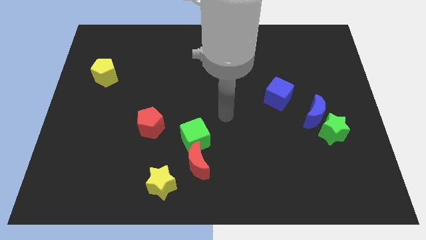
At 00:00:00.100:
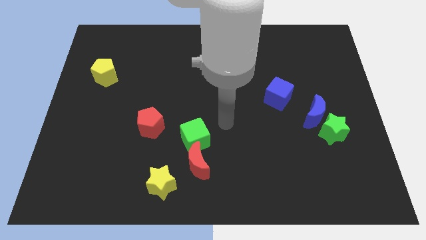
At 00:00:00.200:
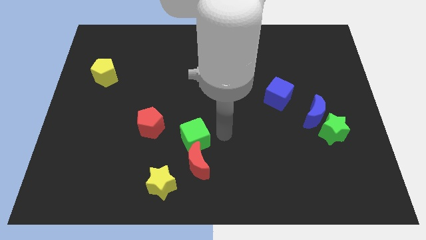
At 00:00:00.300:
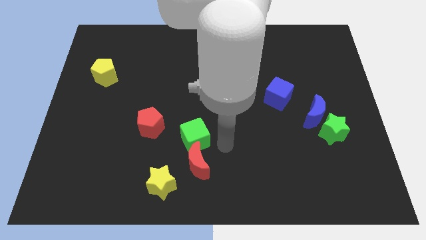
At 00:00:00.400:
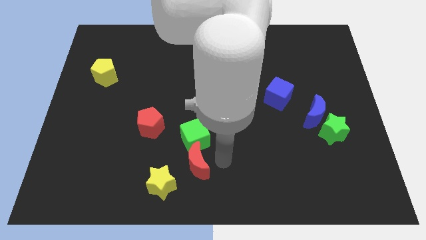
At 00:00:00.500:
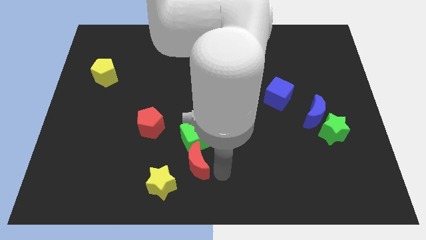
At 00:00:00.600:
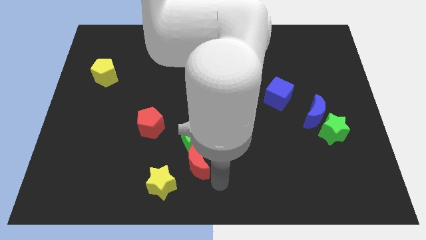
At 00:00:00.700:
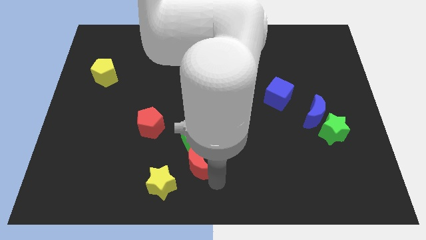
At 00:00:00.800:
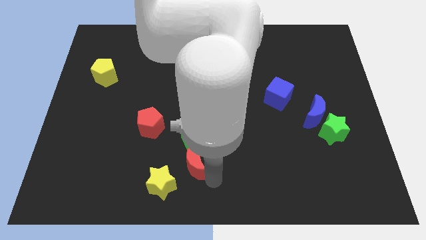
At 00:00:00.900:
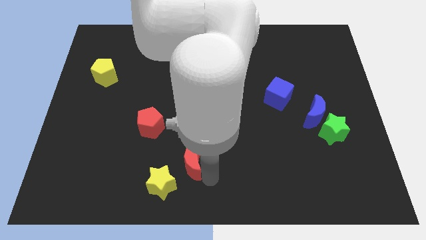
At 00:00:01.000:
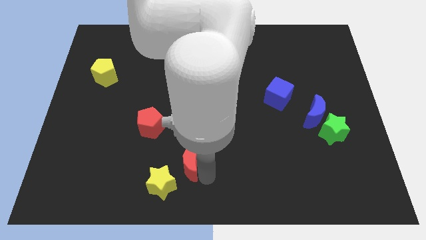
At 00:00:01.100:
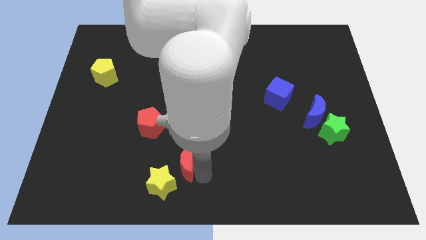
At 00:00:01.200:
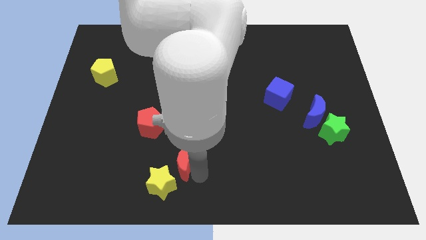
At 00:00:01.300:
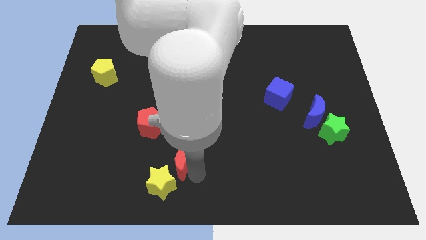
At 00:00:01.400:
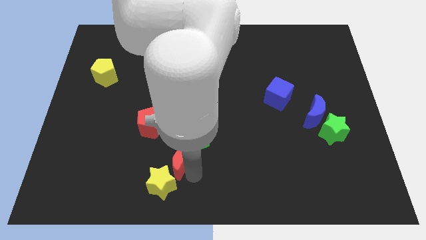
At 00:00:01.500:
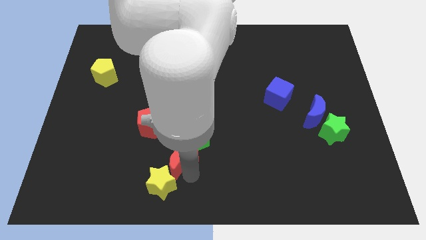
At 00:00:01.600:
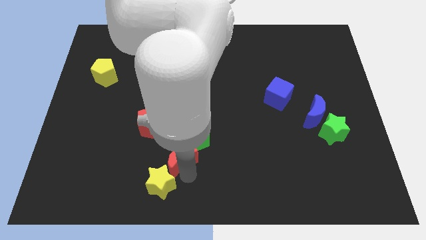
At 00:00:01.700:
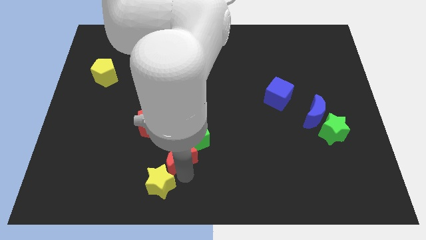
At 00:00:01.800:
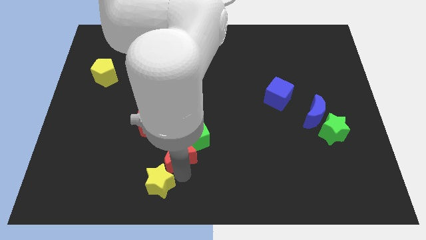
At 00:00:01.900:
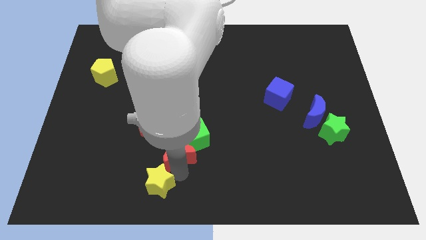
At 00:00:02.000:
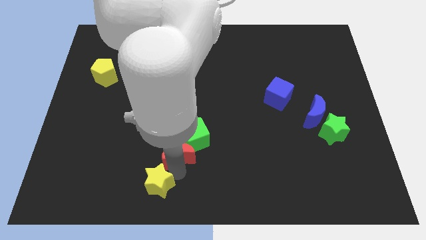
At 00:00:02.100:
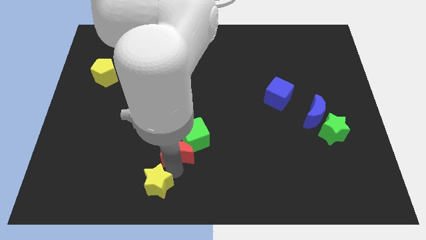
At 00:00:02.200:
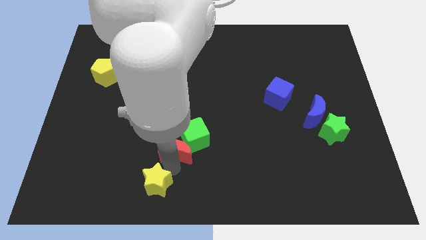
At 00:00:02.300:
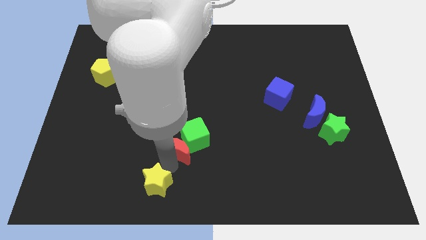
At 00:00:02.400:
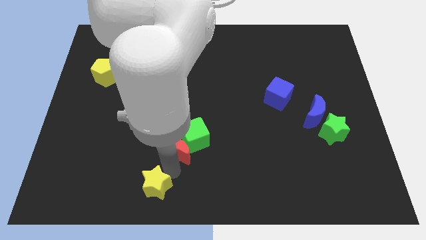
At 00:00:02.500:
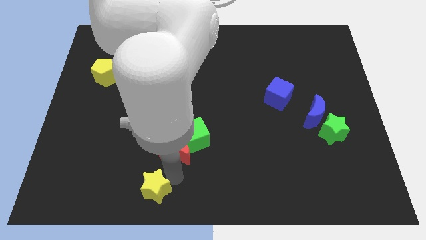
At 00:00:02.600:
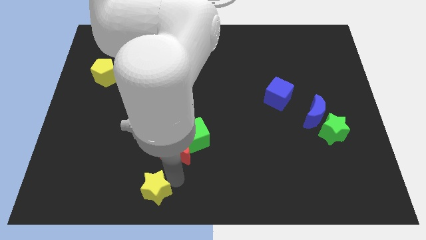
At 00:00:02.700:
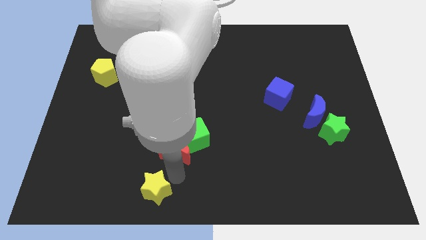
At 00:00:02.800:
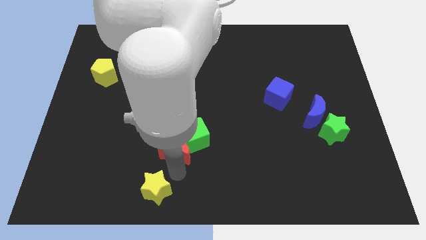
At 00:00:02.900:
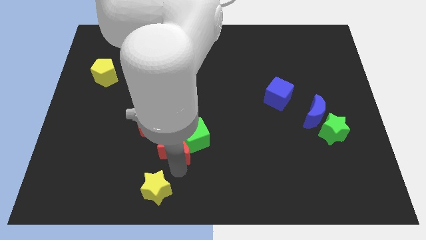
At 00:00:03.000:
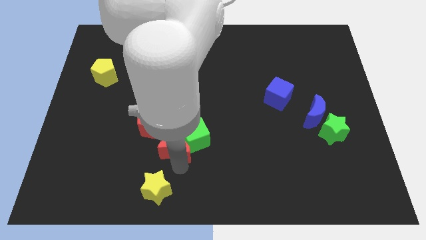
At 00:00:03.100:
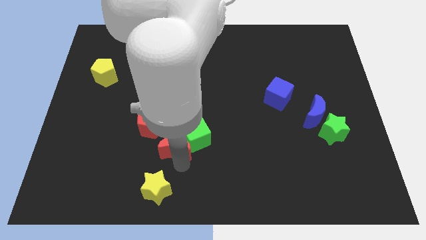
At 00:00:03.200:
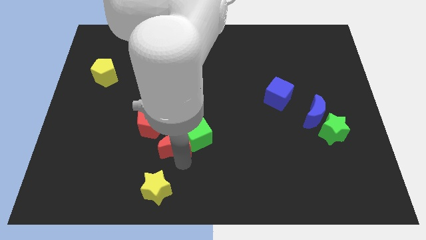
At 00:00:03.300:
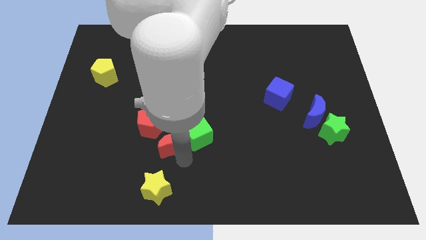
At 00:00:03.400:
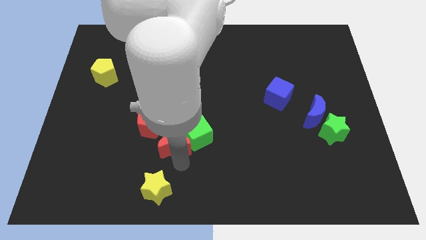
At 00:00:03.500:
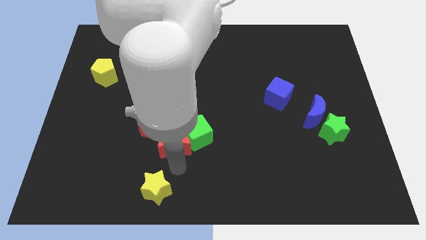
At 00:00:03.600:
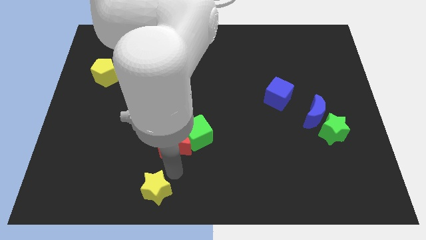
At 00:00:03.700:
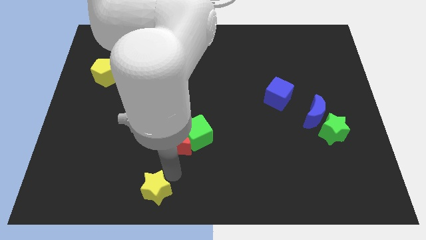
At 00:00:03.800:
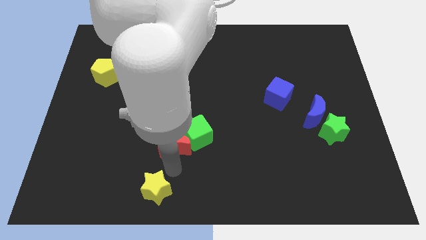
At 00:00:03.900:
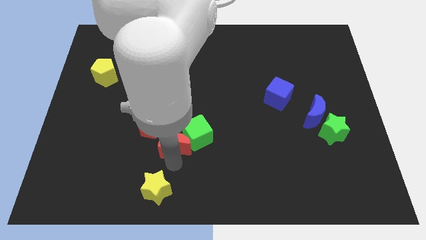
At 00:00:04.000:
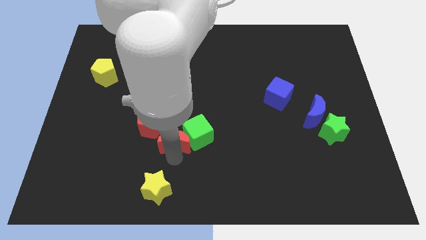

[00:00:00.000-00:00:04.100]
move the red moon slightly diagonally upwards and to the left

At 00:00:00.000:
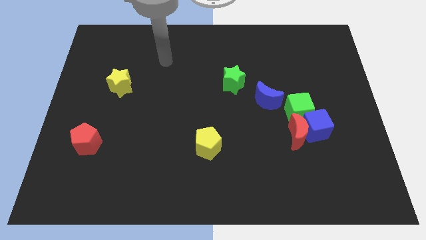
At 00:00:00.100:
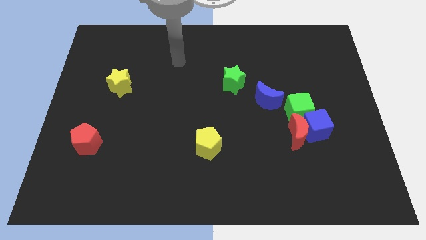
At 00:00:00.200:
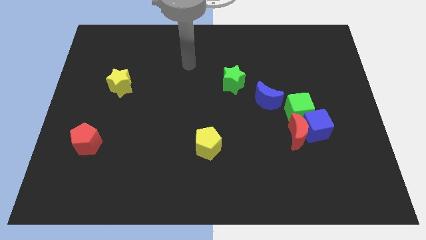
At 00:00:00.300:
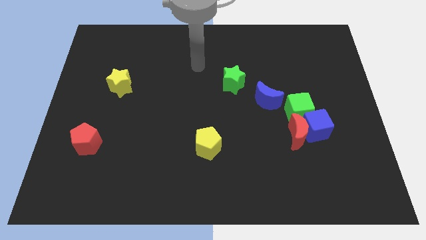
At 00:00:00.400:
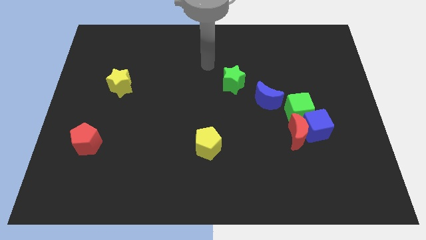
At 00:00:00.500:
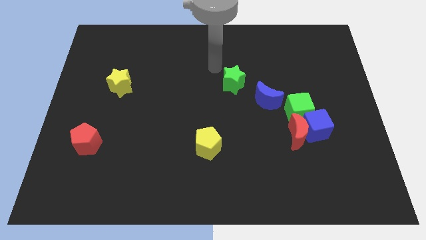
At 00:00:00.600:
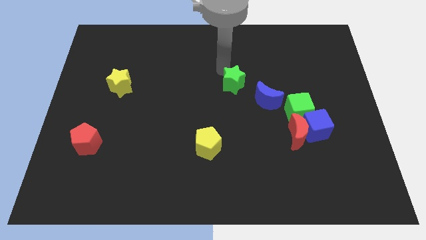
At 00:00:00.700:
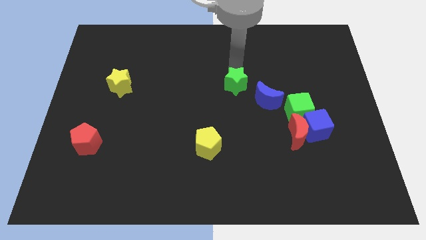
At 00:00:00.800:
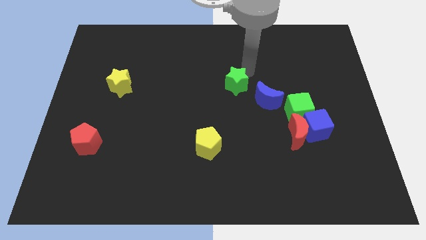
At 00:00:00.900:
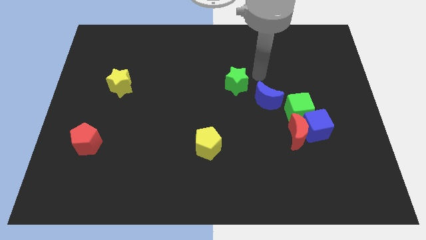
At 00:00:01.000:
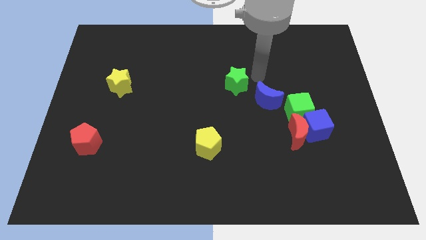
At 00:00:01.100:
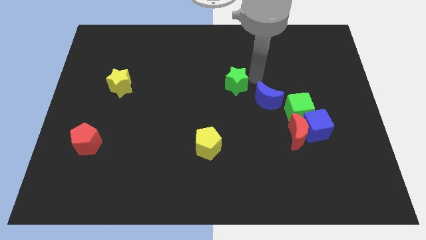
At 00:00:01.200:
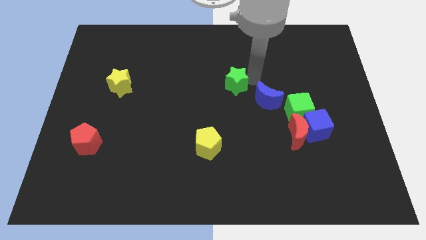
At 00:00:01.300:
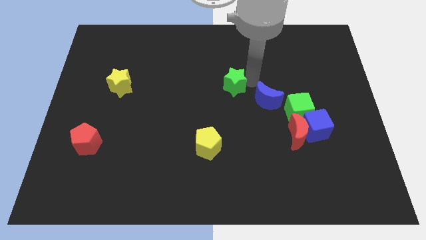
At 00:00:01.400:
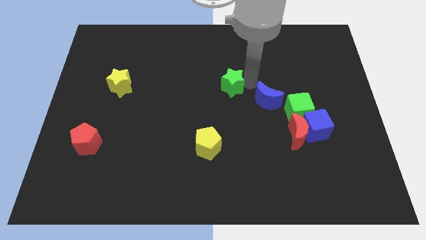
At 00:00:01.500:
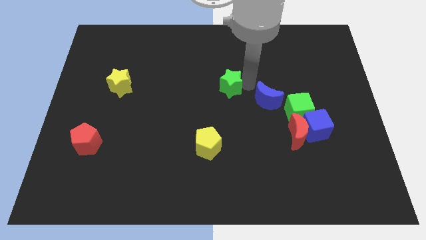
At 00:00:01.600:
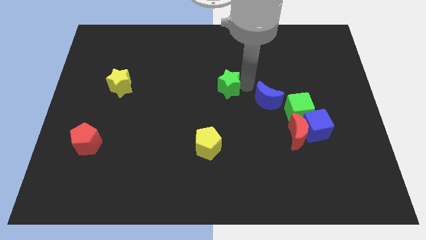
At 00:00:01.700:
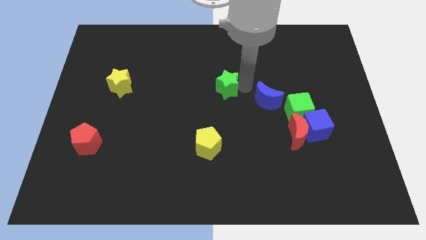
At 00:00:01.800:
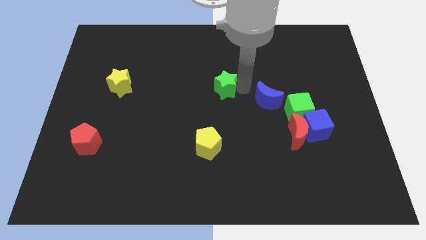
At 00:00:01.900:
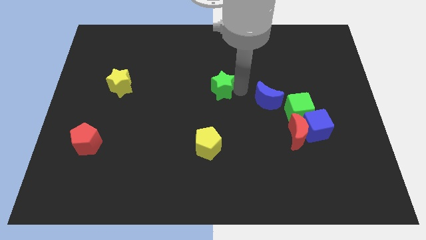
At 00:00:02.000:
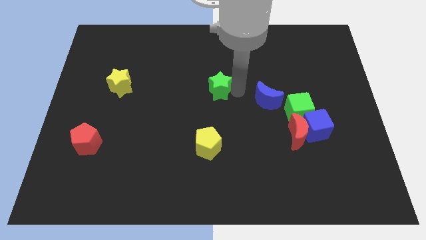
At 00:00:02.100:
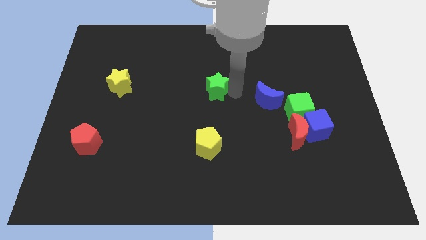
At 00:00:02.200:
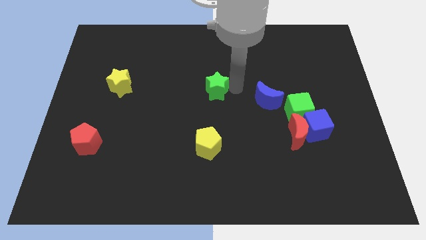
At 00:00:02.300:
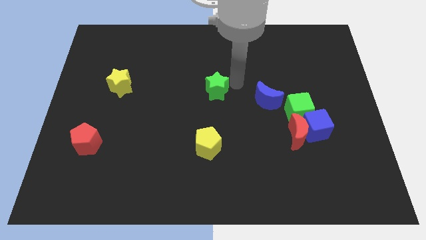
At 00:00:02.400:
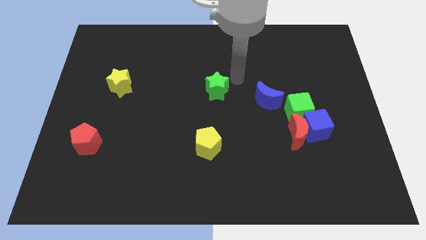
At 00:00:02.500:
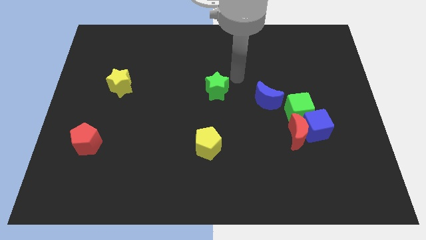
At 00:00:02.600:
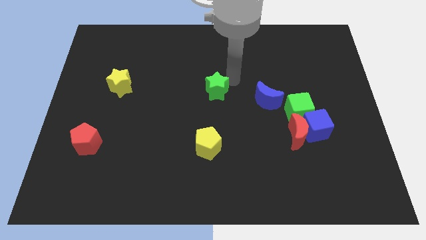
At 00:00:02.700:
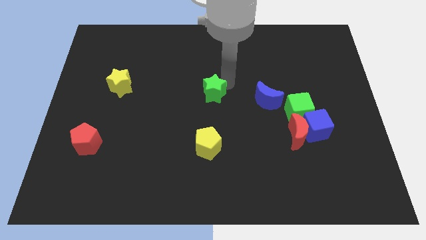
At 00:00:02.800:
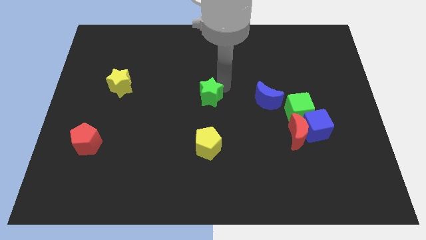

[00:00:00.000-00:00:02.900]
move the green star diagonally down and left a bit

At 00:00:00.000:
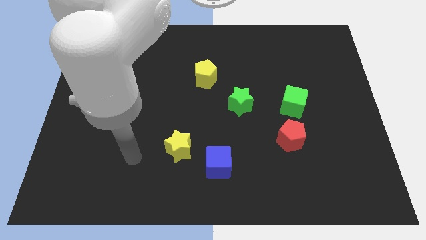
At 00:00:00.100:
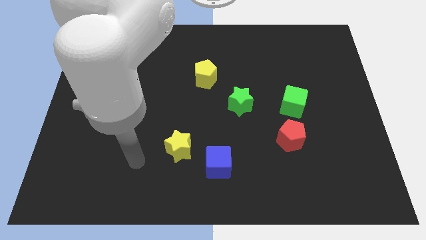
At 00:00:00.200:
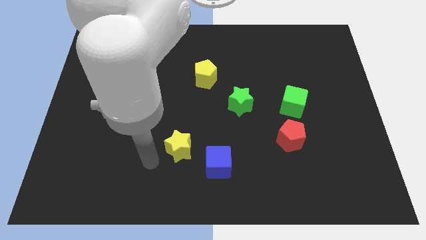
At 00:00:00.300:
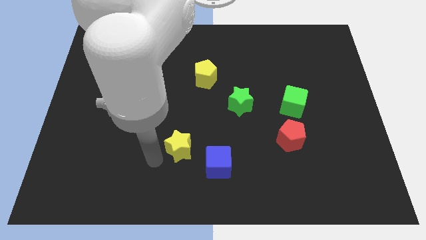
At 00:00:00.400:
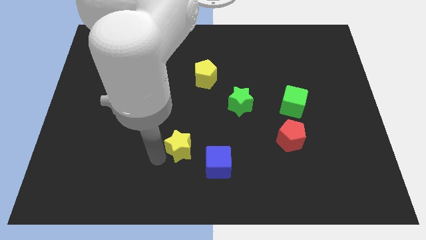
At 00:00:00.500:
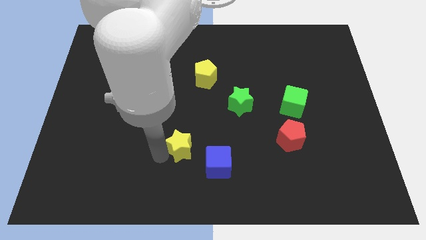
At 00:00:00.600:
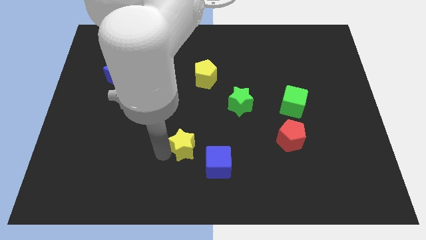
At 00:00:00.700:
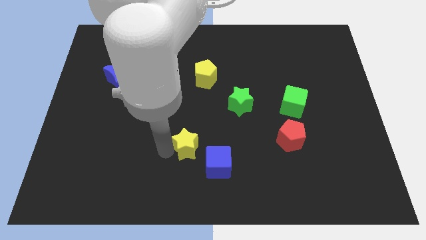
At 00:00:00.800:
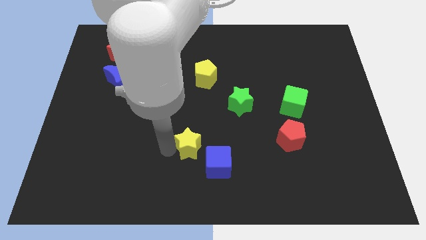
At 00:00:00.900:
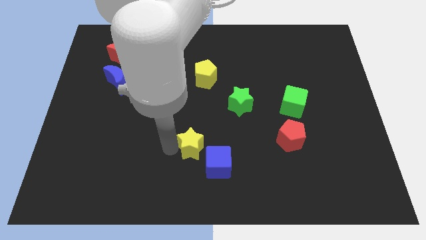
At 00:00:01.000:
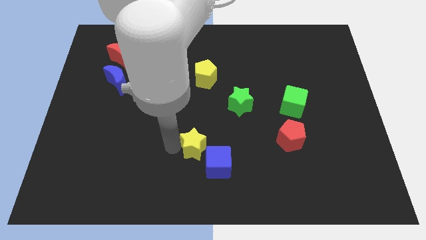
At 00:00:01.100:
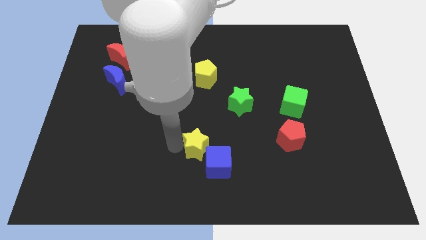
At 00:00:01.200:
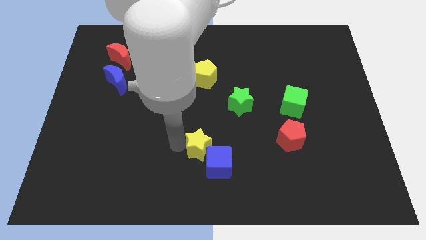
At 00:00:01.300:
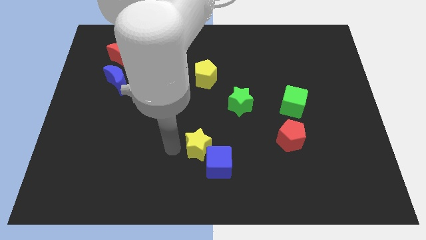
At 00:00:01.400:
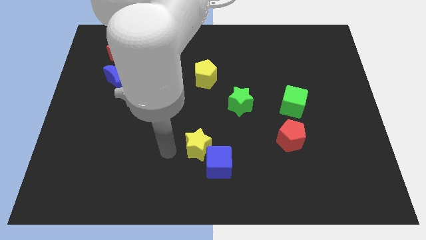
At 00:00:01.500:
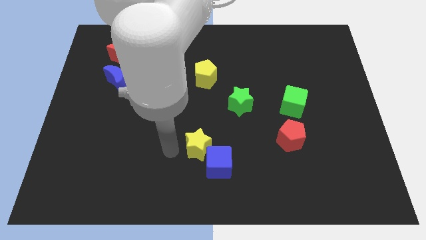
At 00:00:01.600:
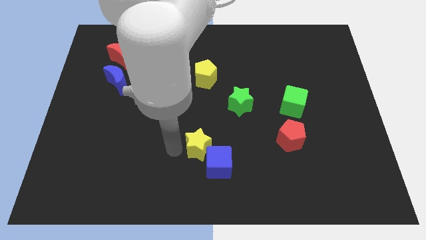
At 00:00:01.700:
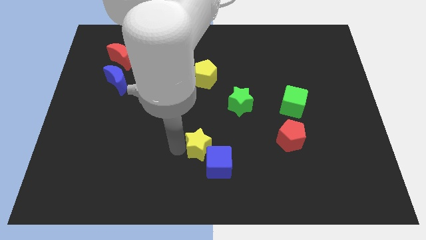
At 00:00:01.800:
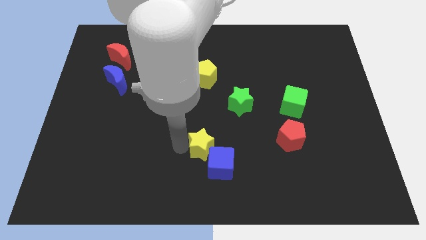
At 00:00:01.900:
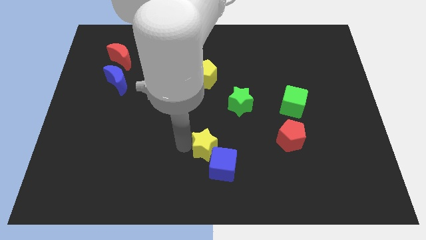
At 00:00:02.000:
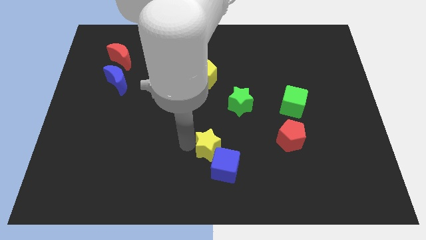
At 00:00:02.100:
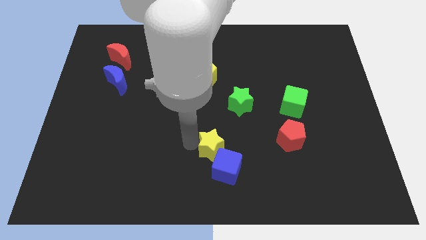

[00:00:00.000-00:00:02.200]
slide the yellow star to the right slightly
